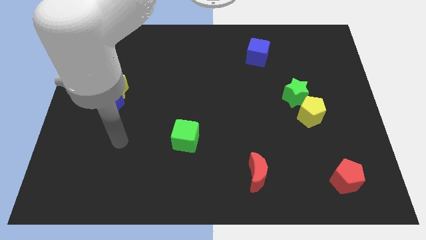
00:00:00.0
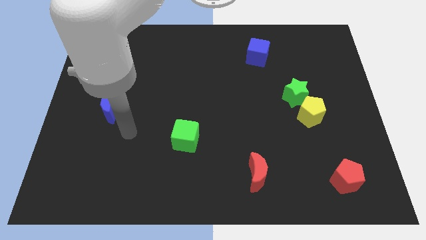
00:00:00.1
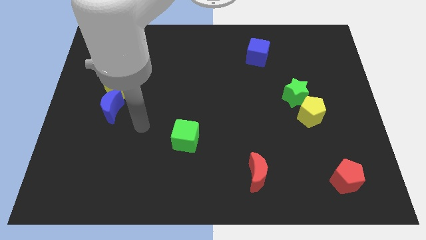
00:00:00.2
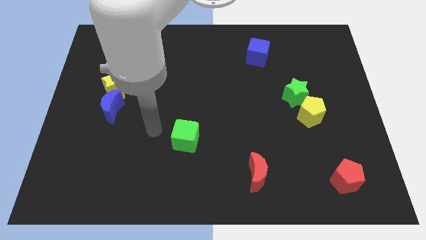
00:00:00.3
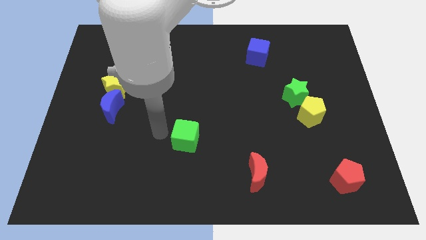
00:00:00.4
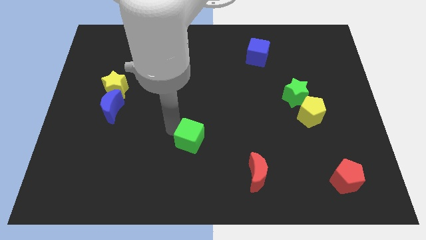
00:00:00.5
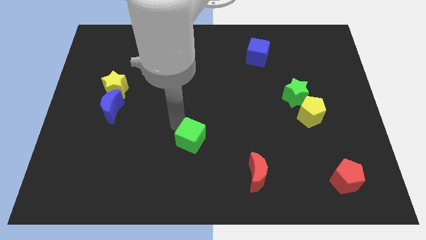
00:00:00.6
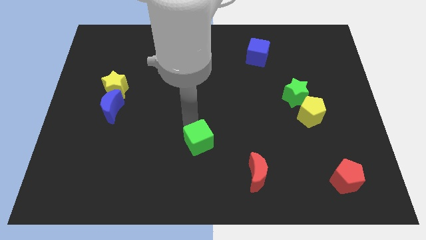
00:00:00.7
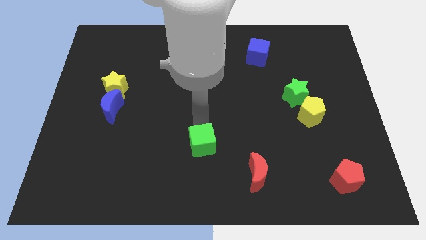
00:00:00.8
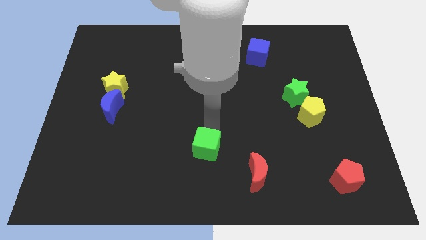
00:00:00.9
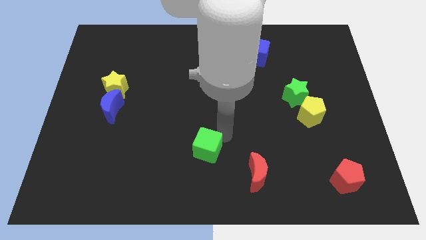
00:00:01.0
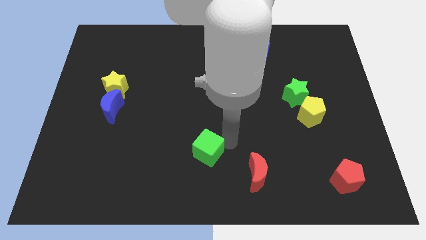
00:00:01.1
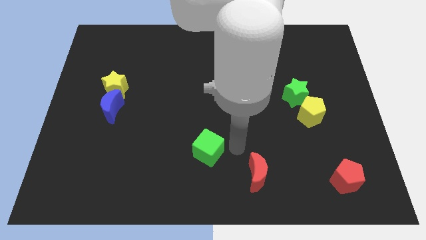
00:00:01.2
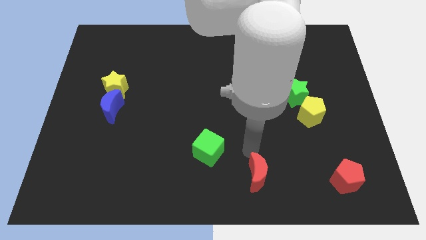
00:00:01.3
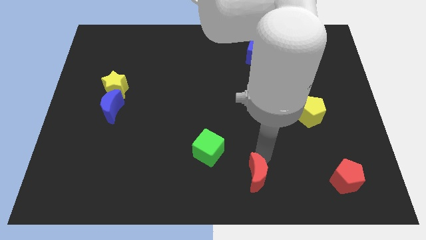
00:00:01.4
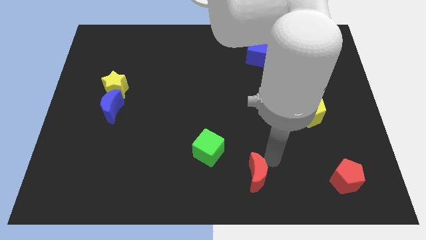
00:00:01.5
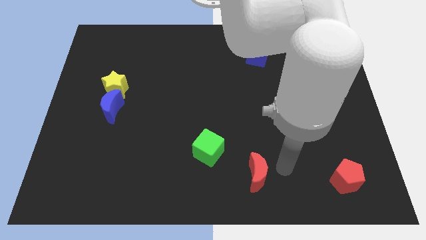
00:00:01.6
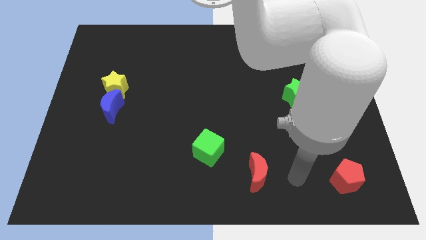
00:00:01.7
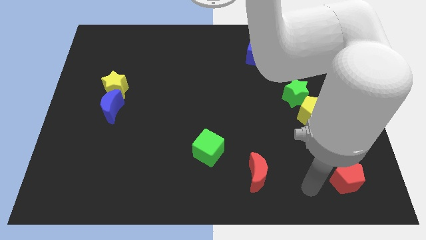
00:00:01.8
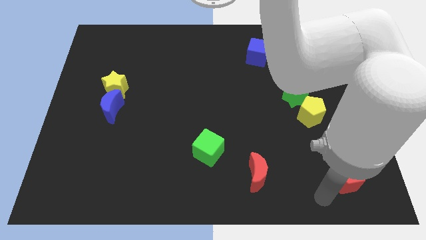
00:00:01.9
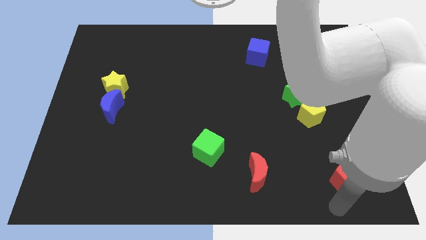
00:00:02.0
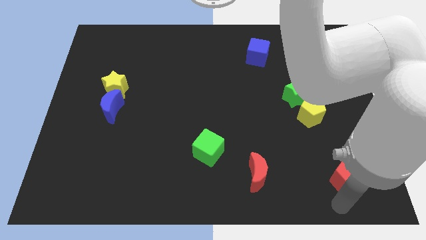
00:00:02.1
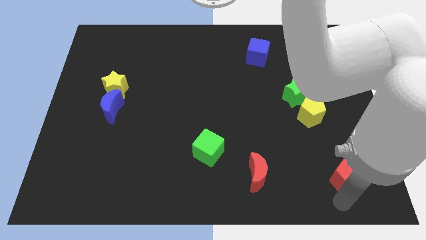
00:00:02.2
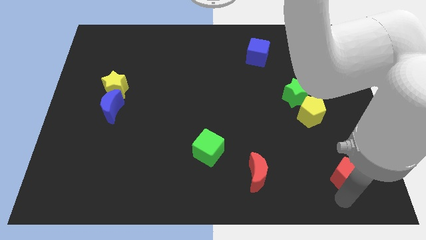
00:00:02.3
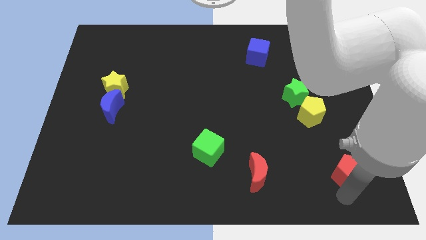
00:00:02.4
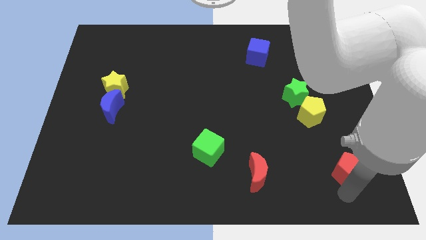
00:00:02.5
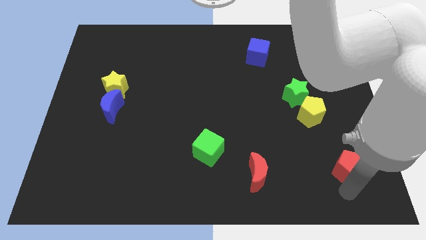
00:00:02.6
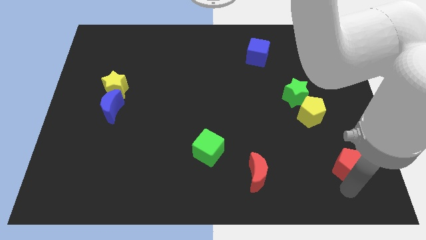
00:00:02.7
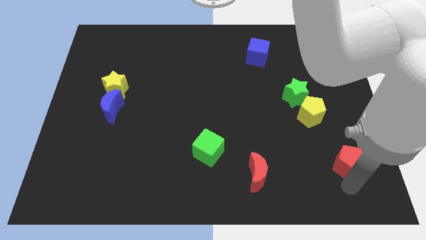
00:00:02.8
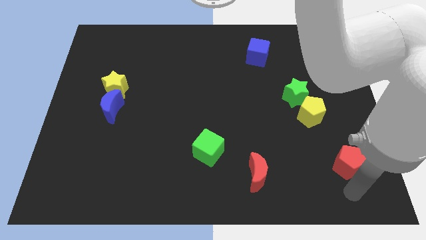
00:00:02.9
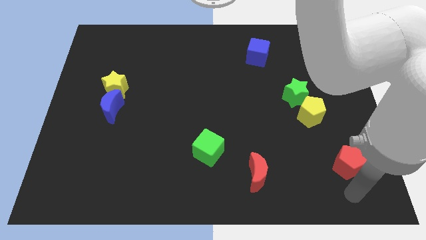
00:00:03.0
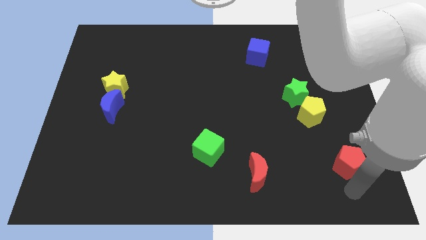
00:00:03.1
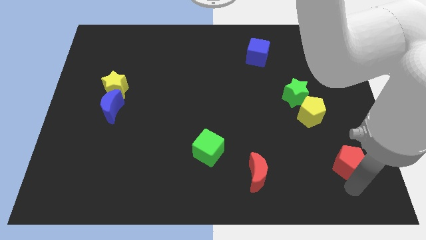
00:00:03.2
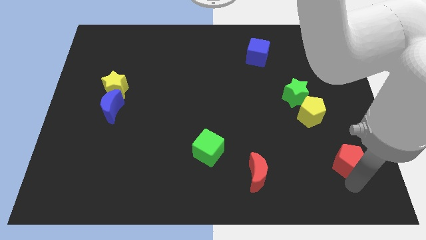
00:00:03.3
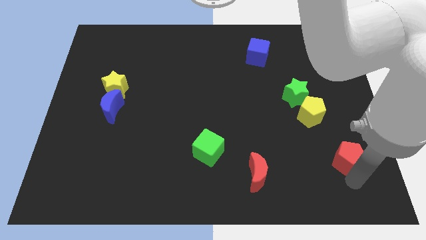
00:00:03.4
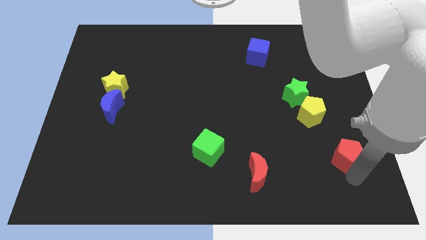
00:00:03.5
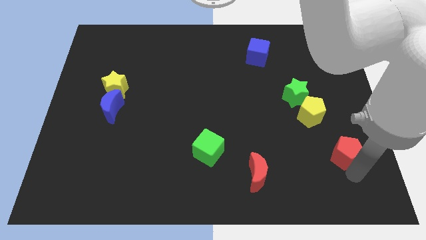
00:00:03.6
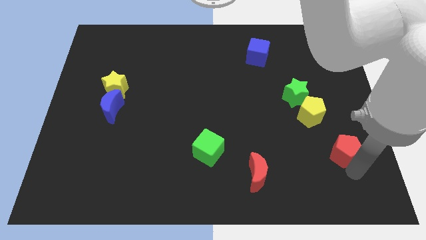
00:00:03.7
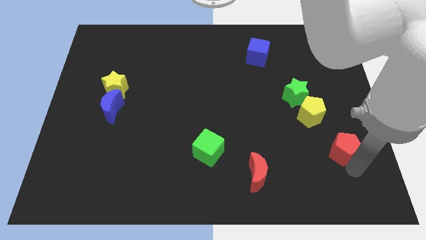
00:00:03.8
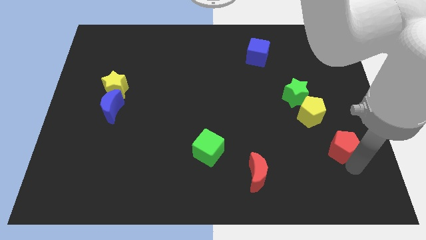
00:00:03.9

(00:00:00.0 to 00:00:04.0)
move the red pentagon a little bit up

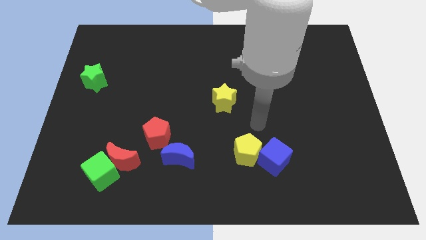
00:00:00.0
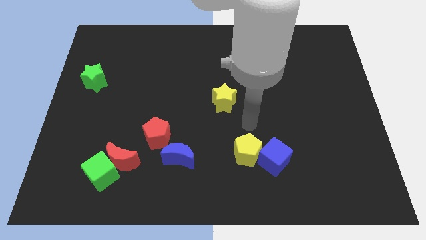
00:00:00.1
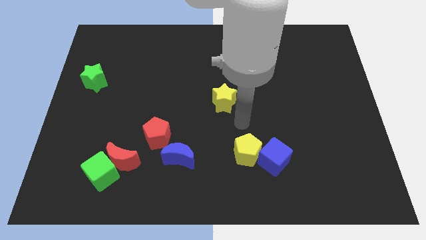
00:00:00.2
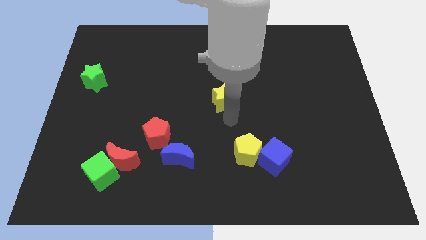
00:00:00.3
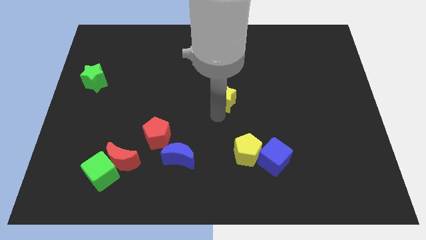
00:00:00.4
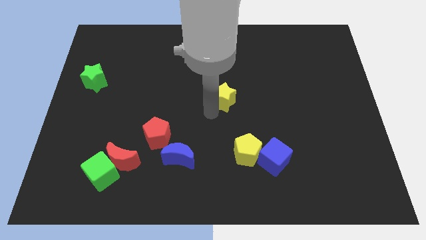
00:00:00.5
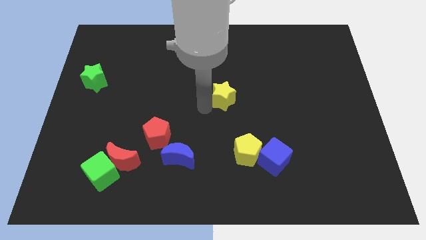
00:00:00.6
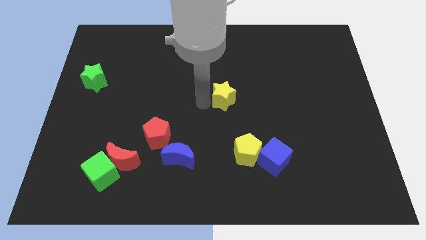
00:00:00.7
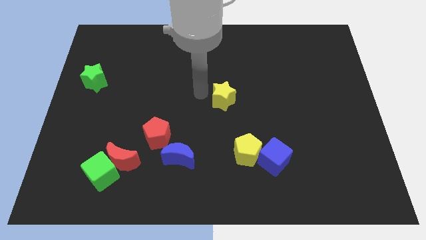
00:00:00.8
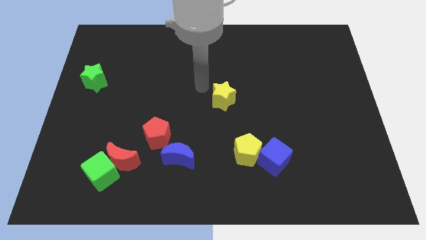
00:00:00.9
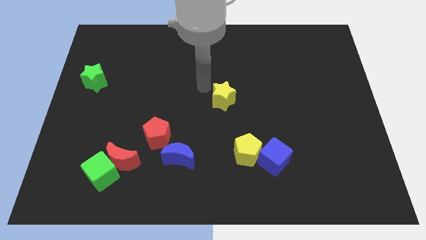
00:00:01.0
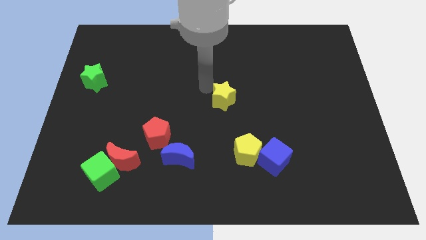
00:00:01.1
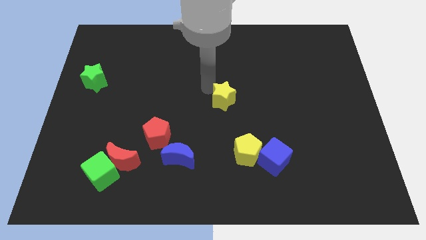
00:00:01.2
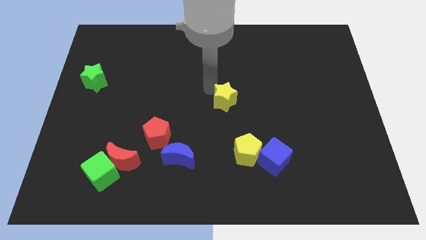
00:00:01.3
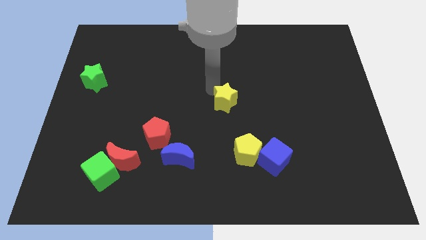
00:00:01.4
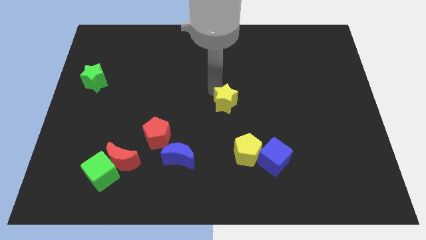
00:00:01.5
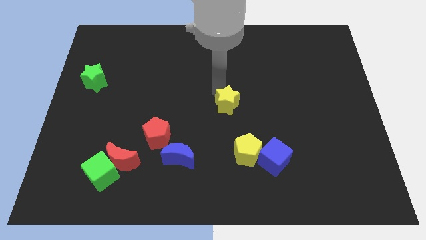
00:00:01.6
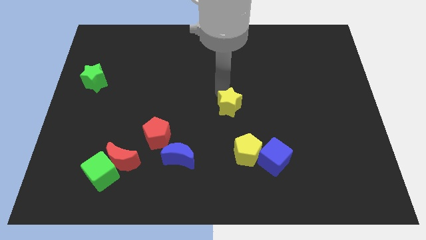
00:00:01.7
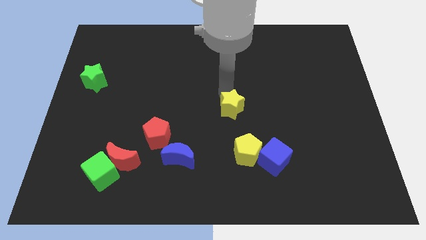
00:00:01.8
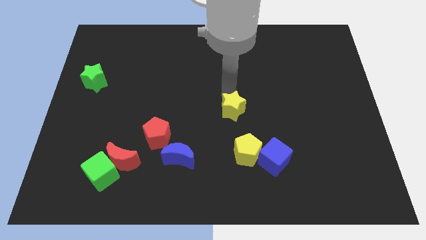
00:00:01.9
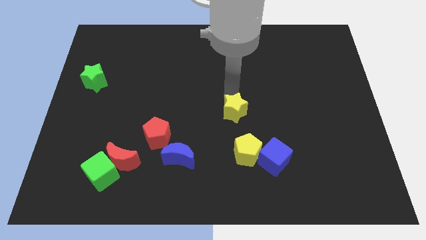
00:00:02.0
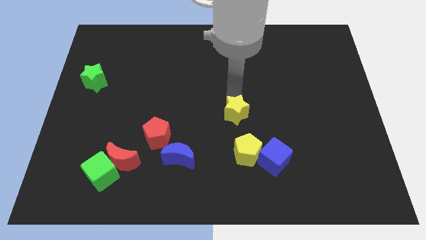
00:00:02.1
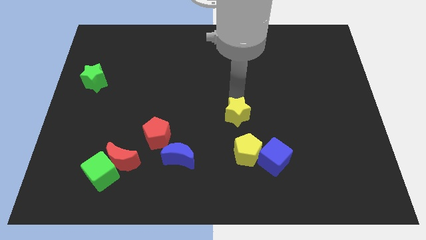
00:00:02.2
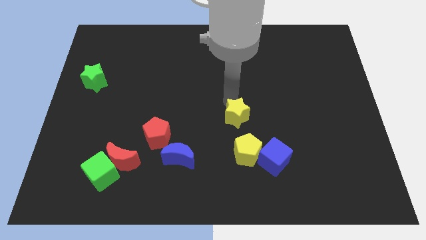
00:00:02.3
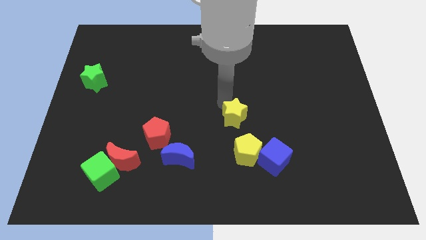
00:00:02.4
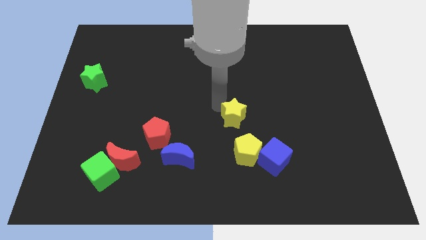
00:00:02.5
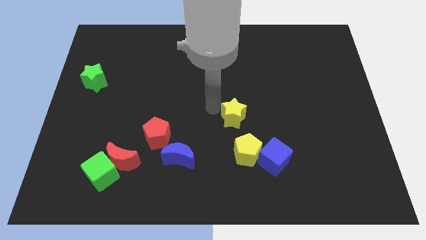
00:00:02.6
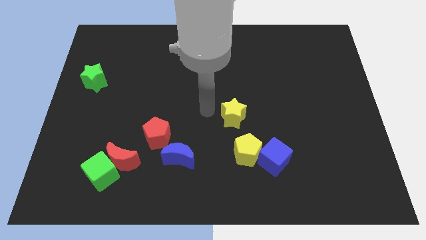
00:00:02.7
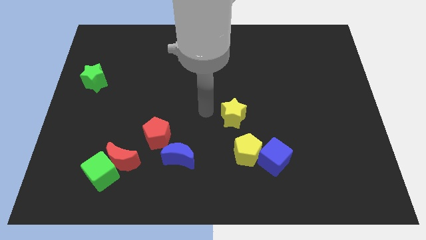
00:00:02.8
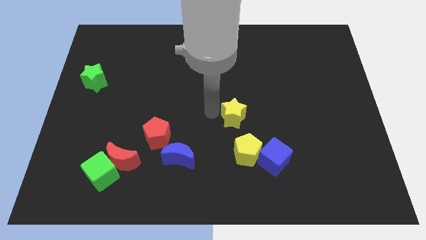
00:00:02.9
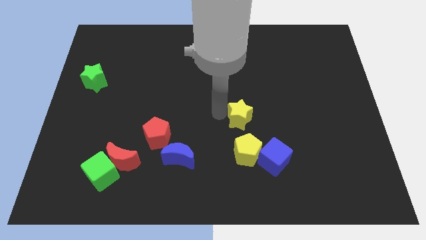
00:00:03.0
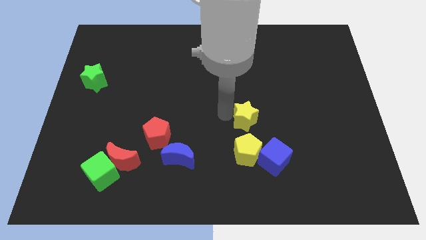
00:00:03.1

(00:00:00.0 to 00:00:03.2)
move the yellow star a little down and to the right diagonally

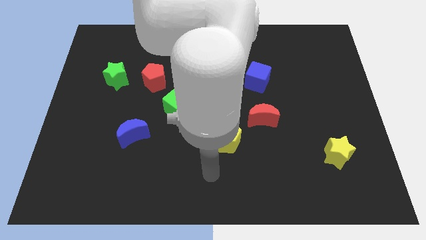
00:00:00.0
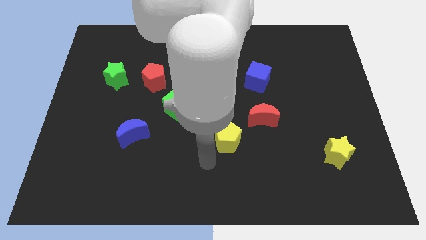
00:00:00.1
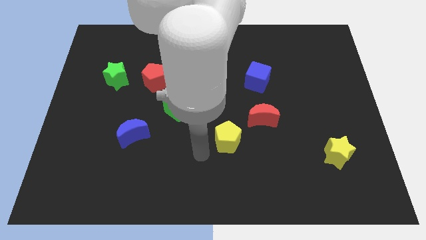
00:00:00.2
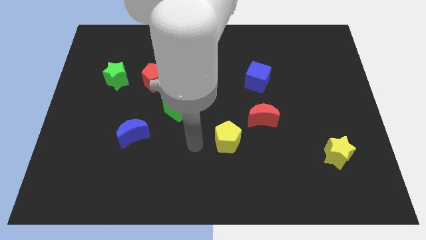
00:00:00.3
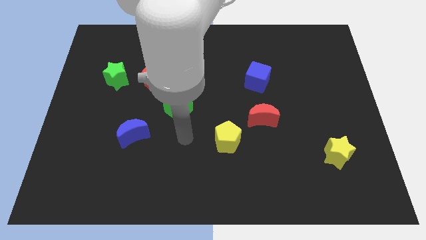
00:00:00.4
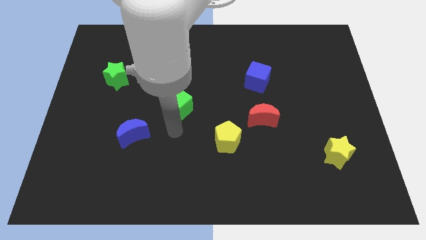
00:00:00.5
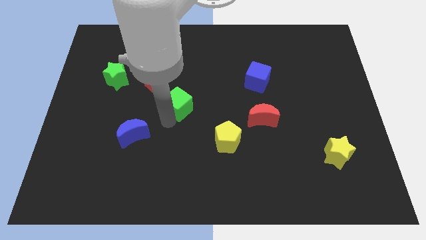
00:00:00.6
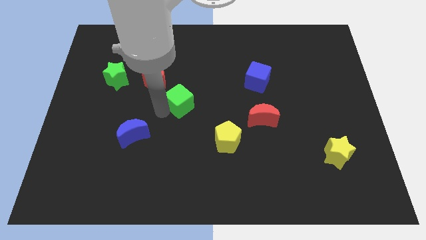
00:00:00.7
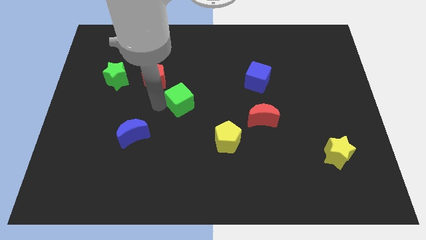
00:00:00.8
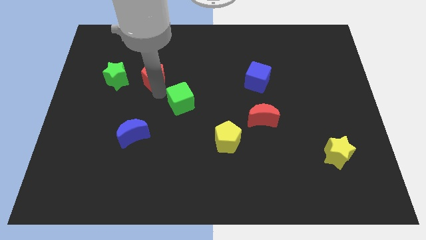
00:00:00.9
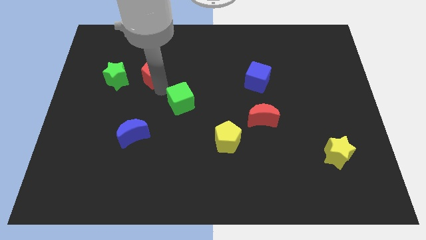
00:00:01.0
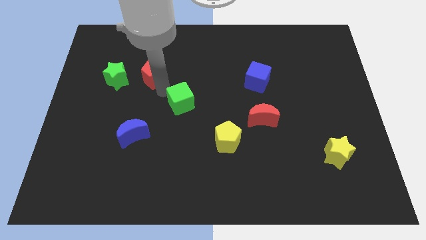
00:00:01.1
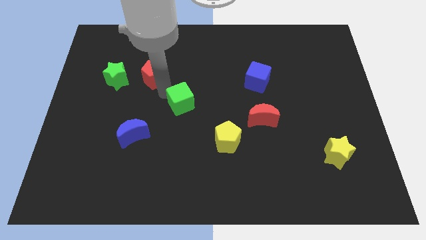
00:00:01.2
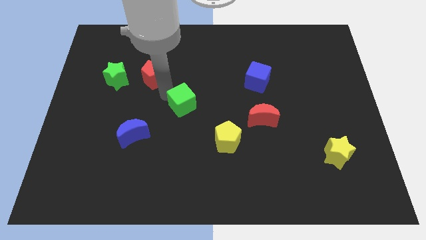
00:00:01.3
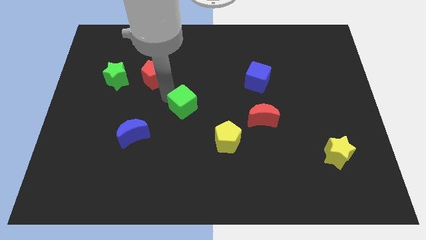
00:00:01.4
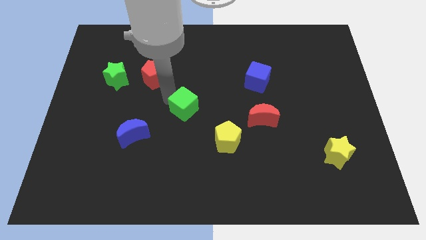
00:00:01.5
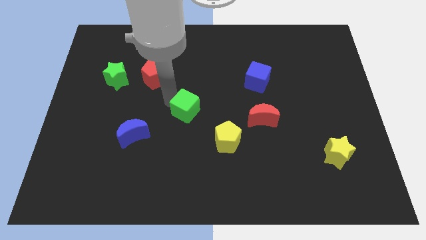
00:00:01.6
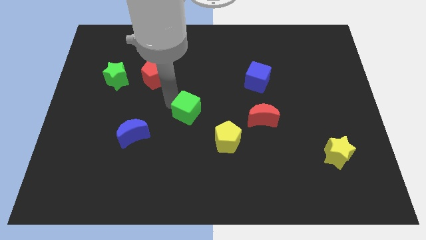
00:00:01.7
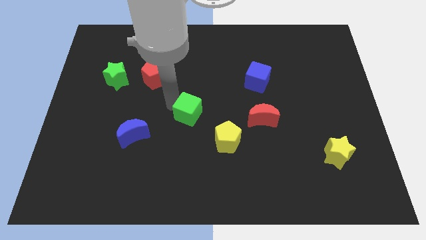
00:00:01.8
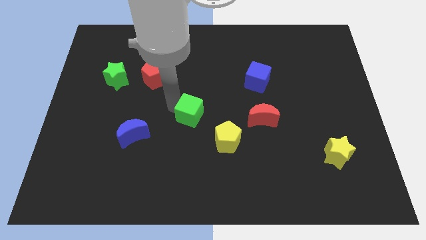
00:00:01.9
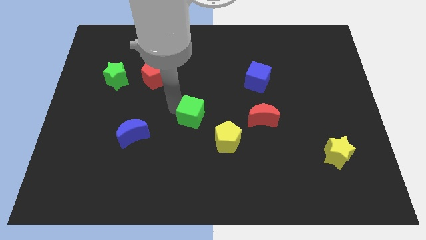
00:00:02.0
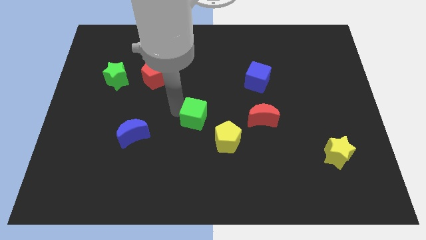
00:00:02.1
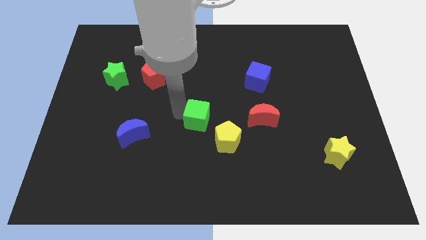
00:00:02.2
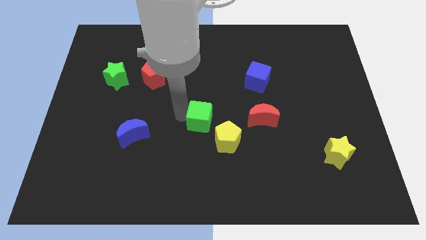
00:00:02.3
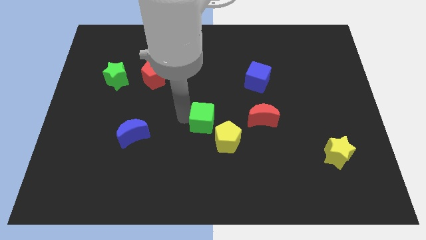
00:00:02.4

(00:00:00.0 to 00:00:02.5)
move the green cube down and then to the right a bit
